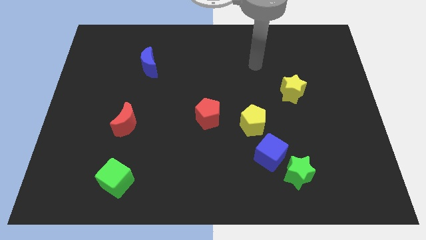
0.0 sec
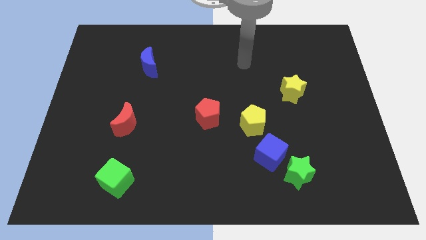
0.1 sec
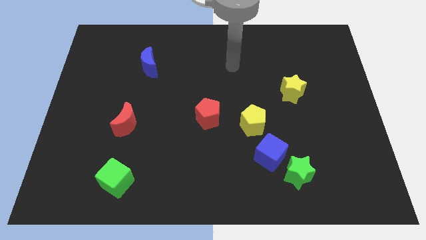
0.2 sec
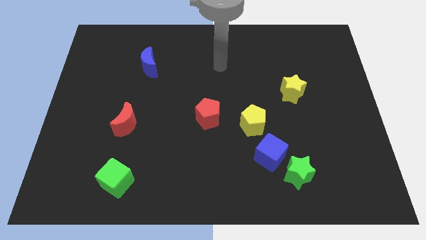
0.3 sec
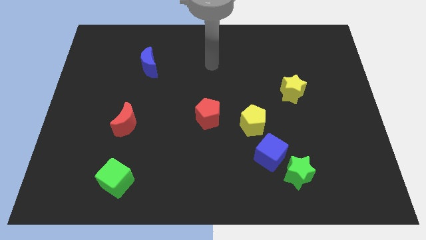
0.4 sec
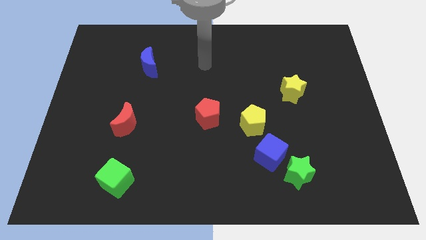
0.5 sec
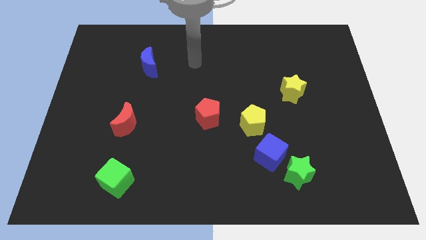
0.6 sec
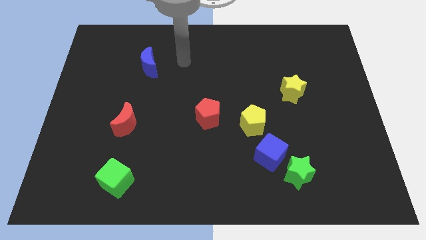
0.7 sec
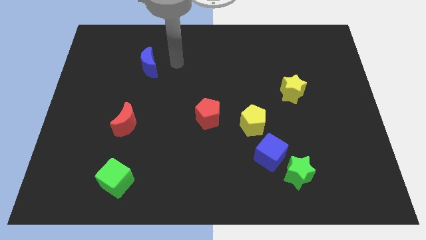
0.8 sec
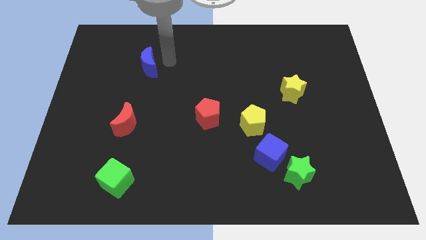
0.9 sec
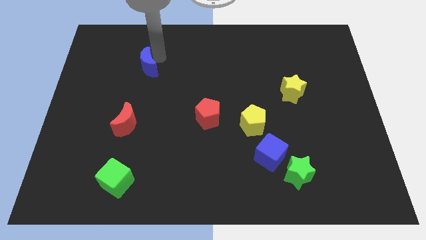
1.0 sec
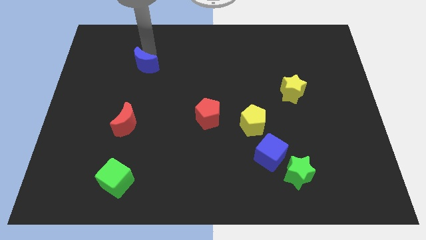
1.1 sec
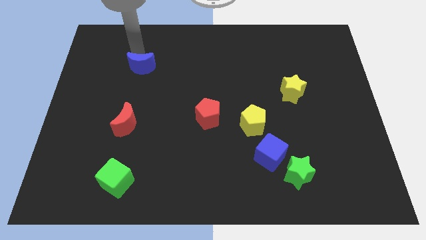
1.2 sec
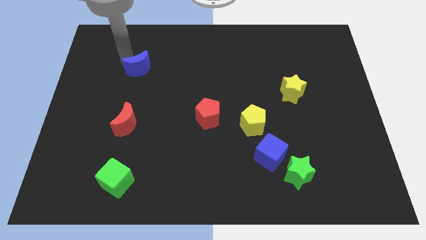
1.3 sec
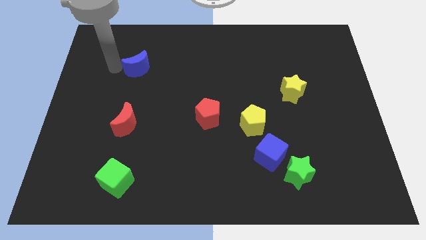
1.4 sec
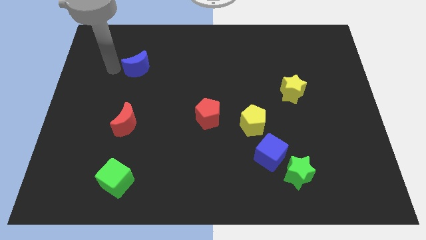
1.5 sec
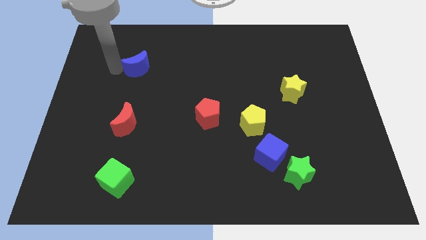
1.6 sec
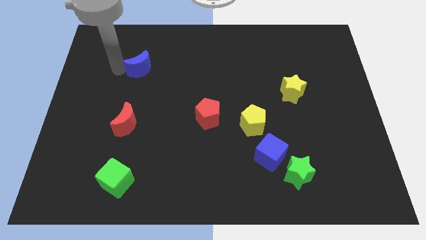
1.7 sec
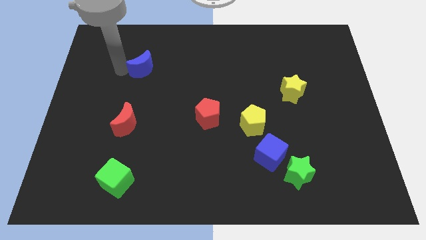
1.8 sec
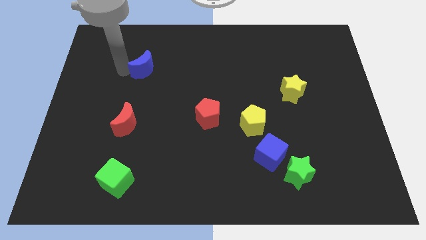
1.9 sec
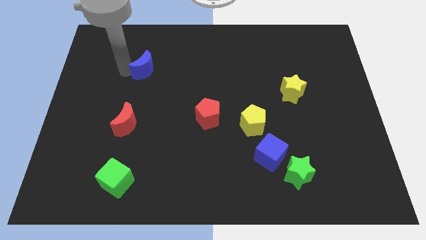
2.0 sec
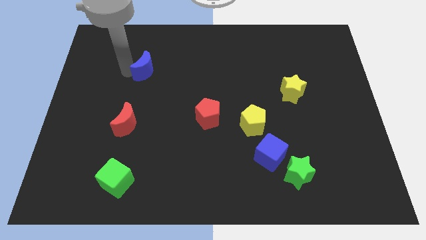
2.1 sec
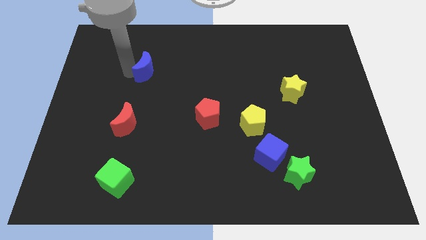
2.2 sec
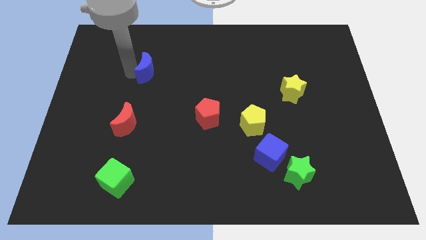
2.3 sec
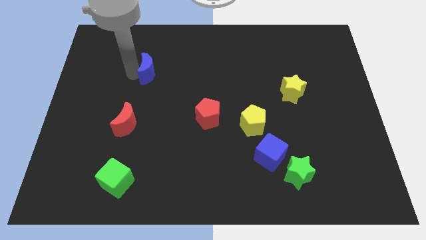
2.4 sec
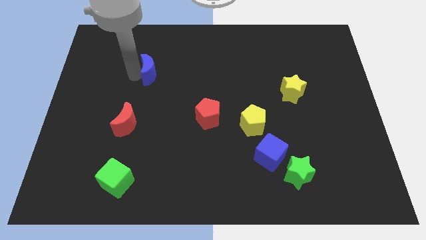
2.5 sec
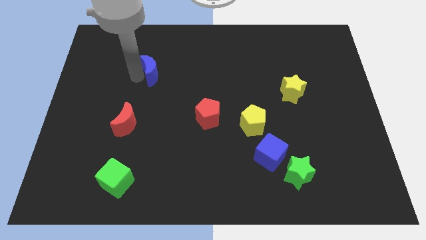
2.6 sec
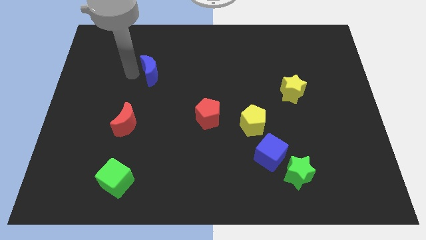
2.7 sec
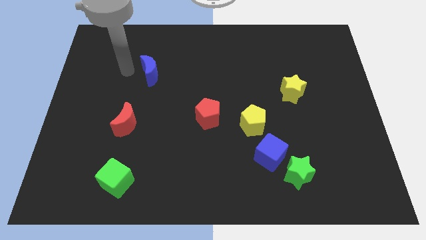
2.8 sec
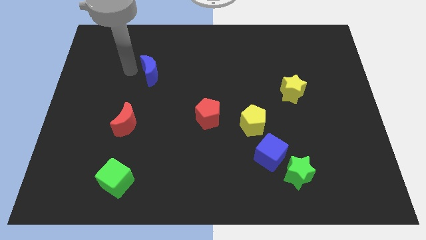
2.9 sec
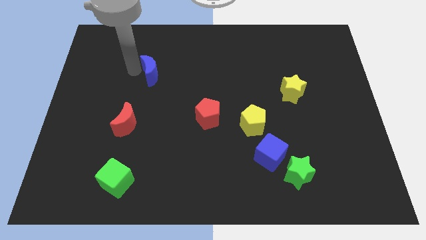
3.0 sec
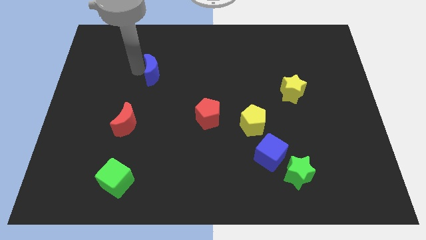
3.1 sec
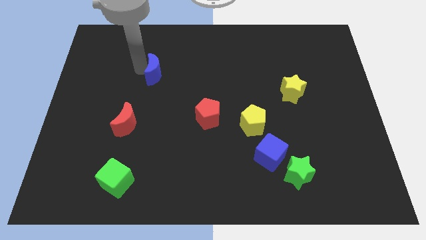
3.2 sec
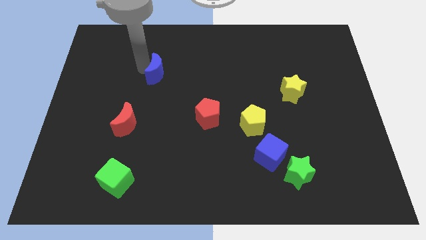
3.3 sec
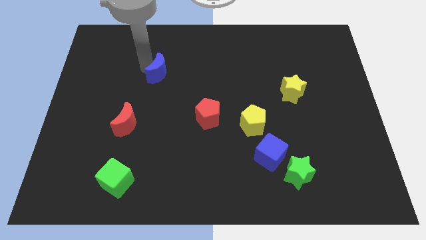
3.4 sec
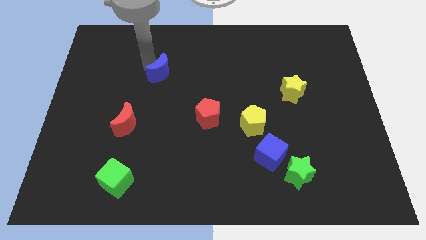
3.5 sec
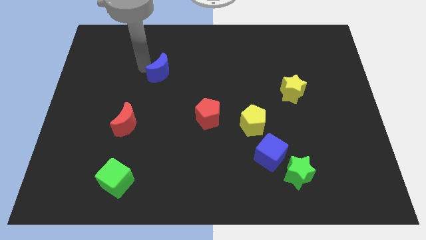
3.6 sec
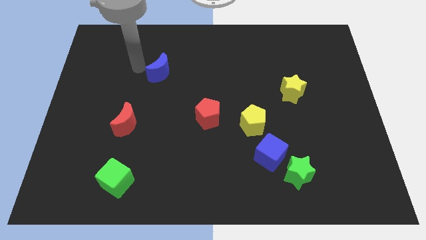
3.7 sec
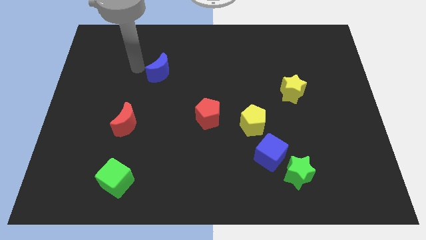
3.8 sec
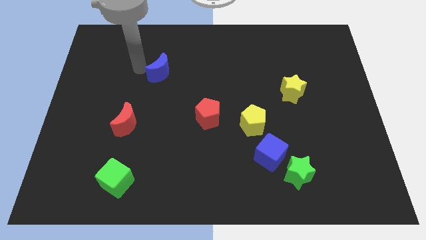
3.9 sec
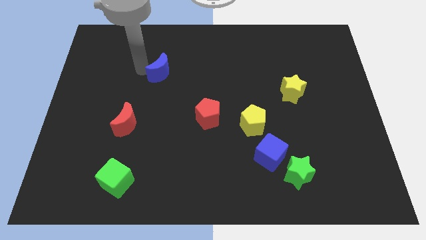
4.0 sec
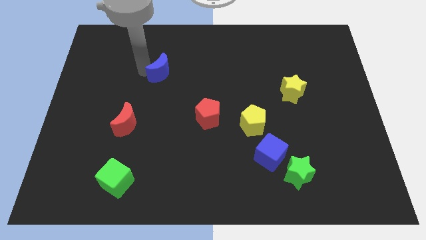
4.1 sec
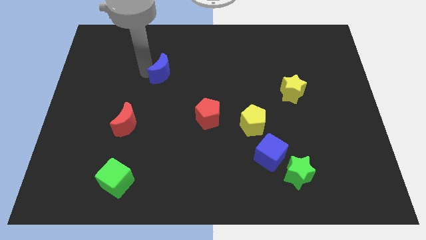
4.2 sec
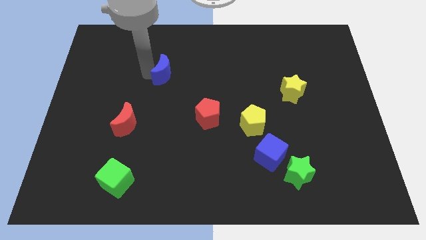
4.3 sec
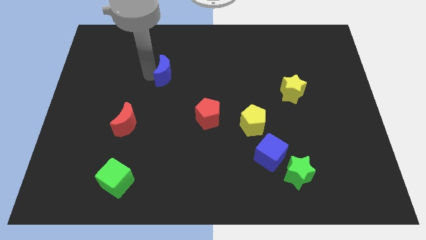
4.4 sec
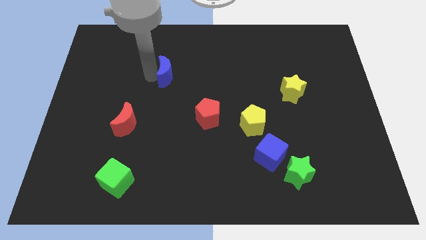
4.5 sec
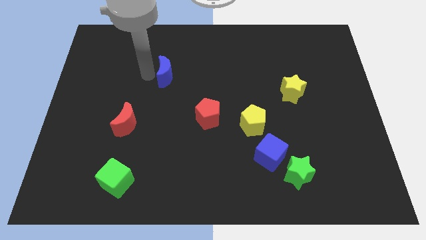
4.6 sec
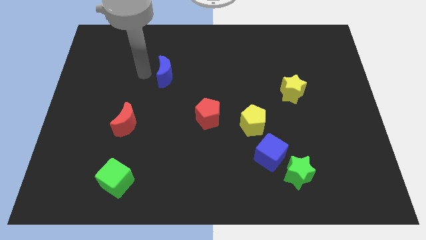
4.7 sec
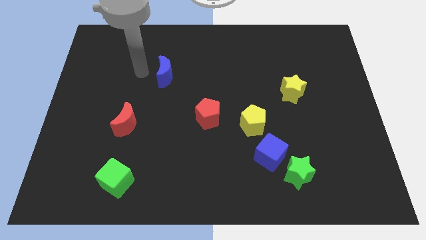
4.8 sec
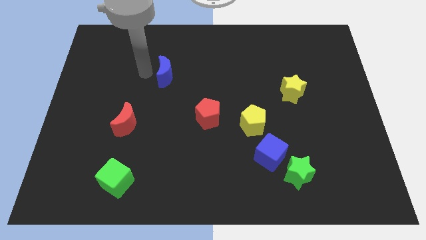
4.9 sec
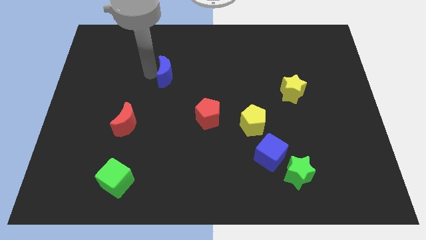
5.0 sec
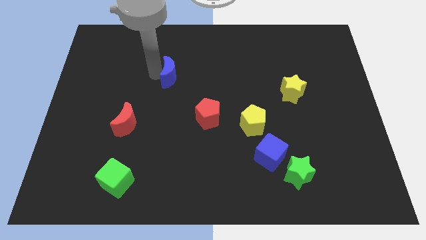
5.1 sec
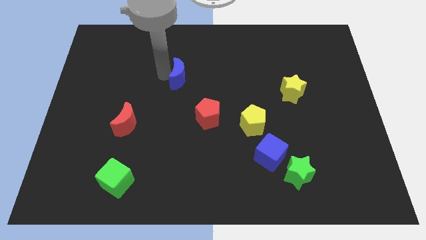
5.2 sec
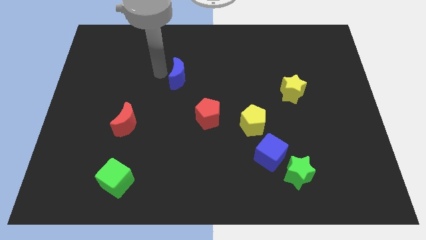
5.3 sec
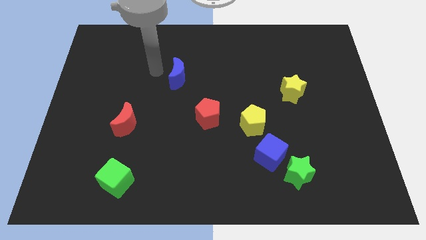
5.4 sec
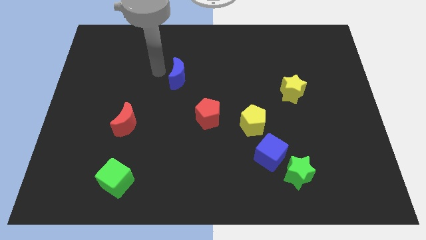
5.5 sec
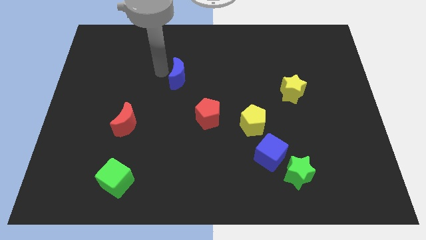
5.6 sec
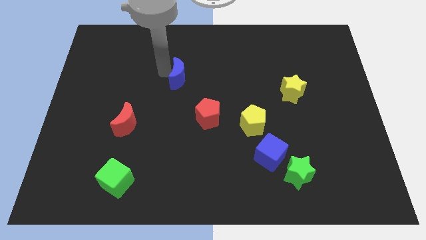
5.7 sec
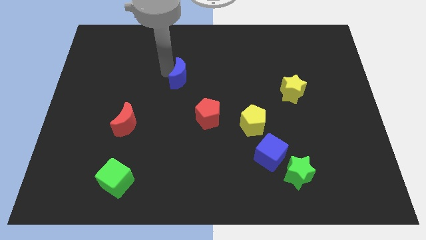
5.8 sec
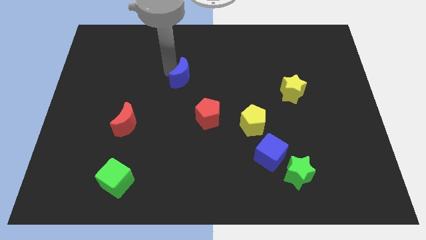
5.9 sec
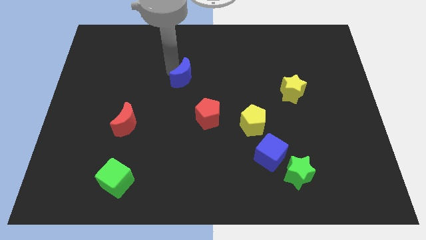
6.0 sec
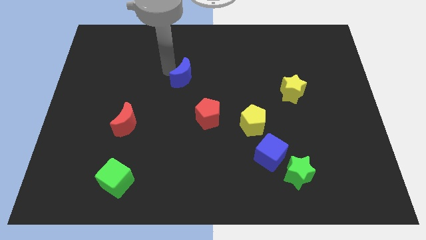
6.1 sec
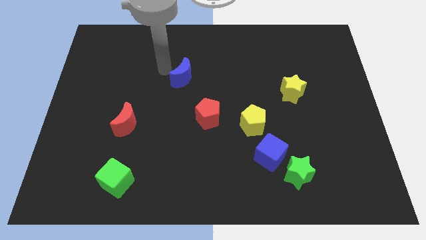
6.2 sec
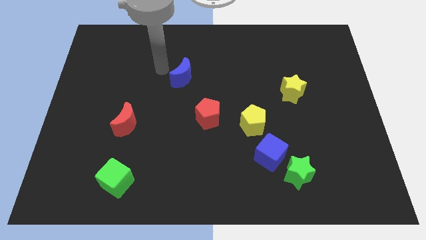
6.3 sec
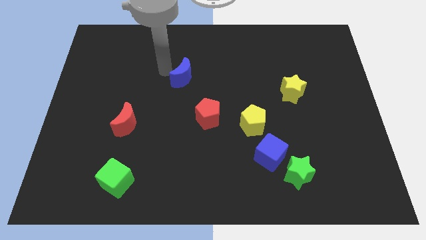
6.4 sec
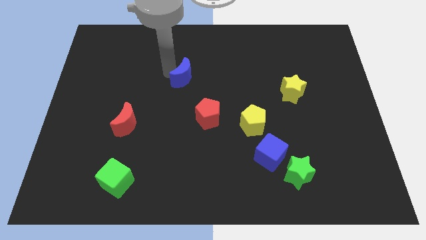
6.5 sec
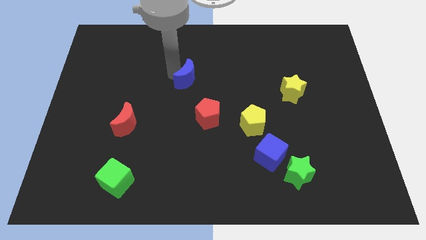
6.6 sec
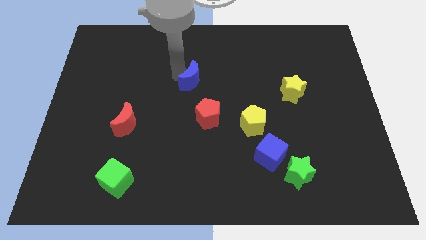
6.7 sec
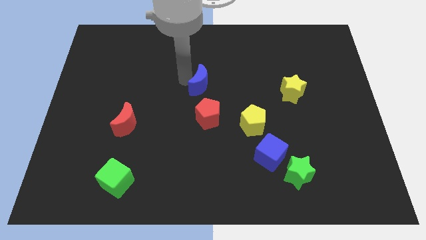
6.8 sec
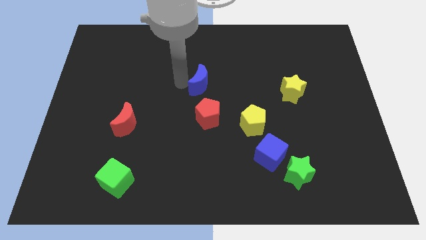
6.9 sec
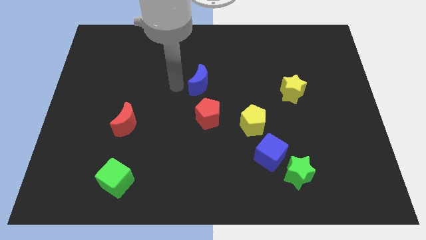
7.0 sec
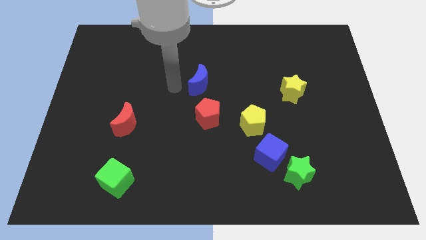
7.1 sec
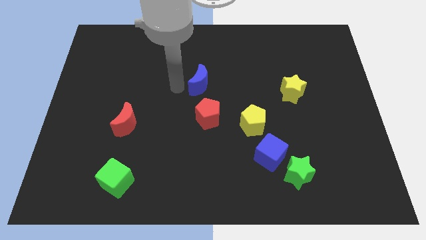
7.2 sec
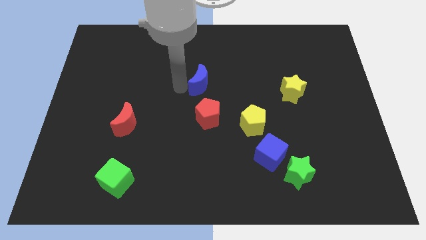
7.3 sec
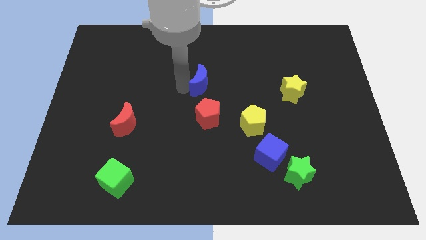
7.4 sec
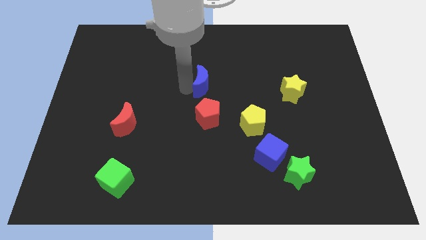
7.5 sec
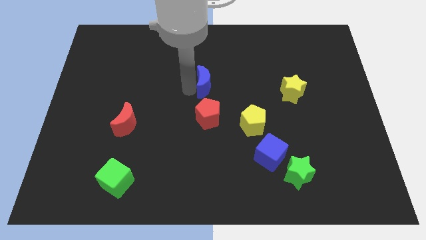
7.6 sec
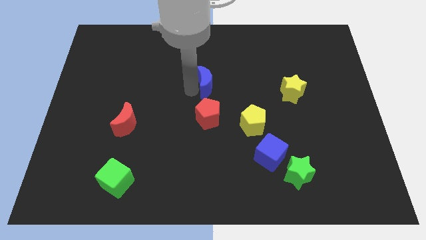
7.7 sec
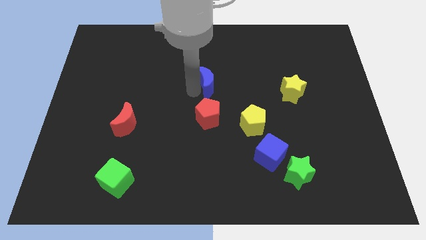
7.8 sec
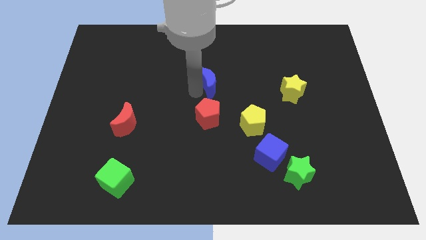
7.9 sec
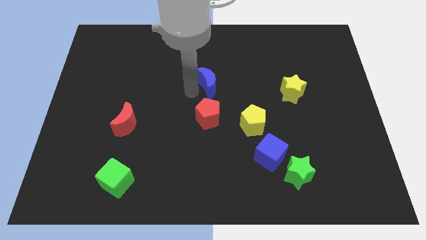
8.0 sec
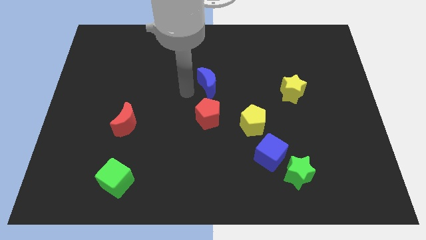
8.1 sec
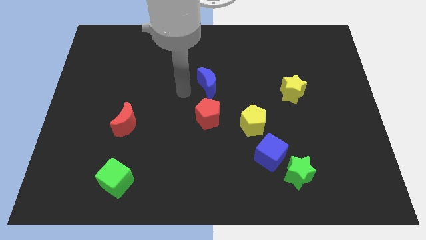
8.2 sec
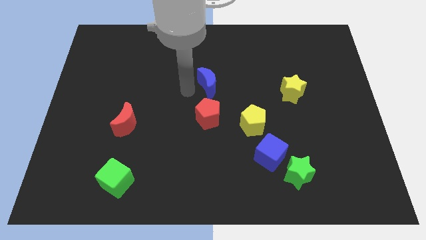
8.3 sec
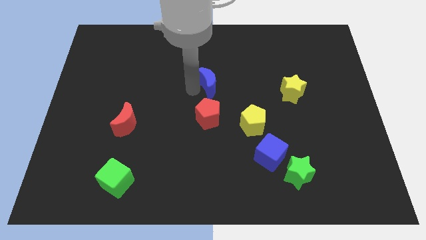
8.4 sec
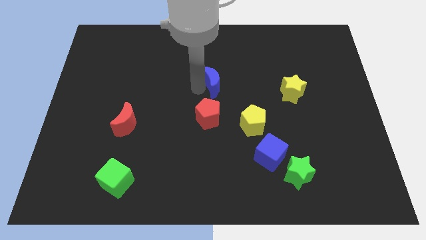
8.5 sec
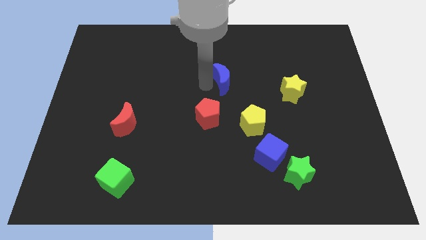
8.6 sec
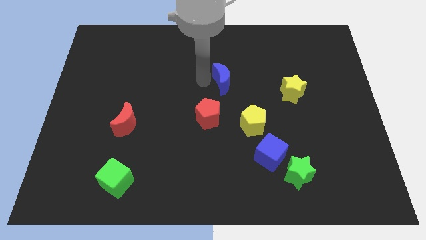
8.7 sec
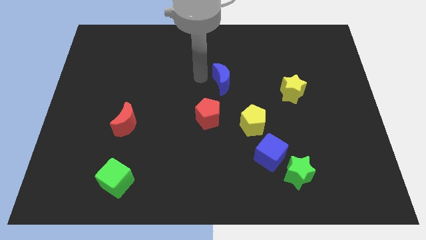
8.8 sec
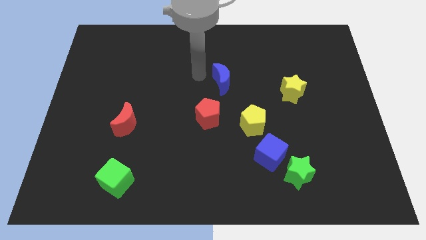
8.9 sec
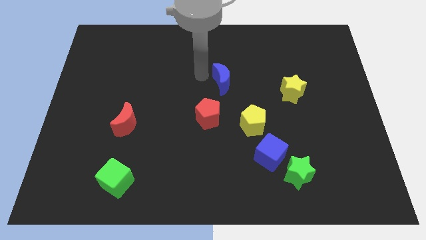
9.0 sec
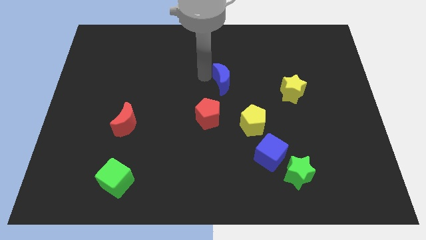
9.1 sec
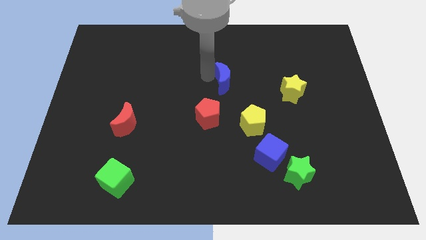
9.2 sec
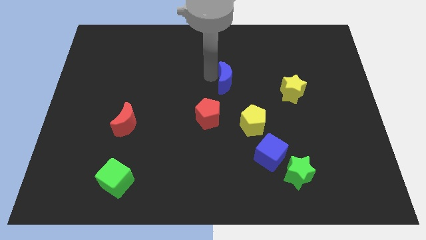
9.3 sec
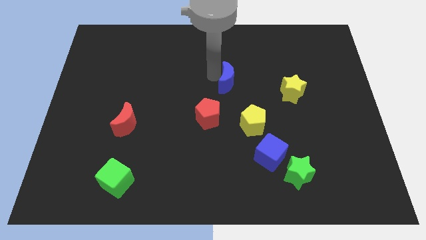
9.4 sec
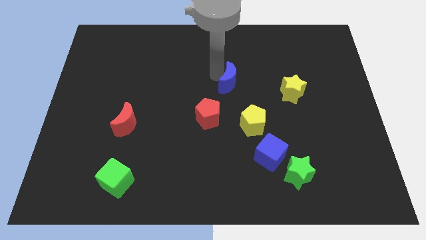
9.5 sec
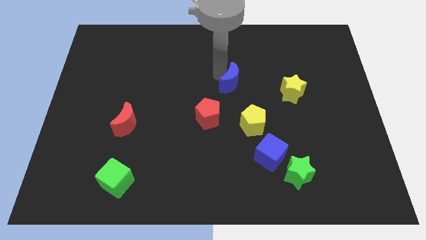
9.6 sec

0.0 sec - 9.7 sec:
move the blue moon to the top of the yellow pentagon
